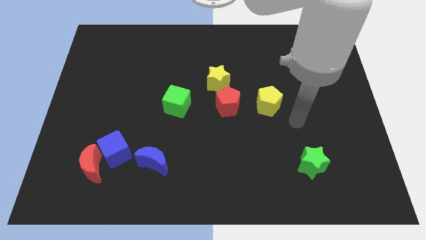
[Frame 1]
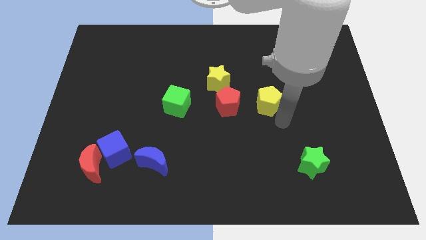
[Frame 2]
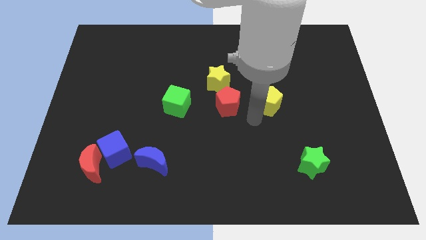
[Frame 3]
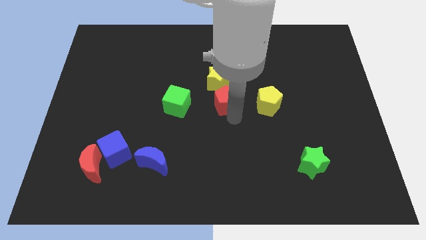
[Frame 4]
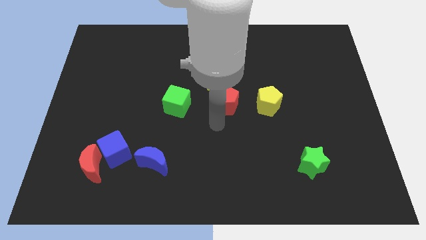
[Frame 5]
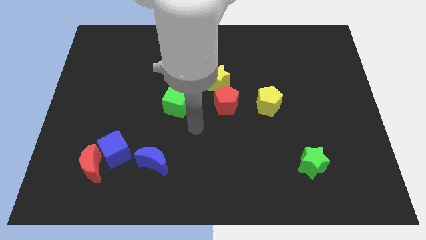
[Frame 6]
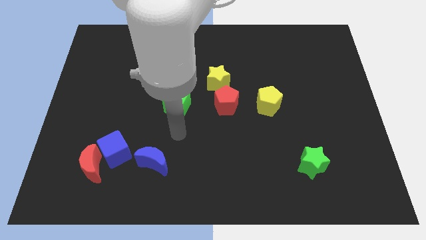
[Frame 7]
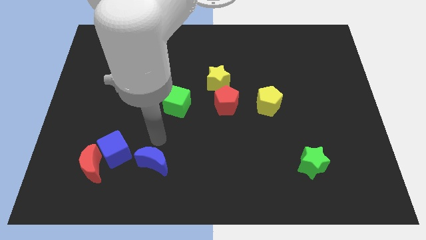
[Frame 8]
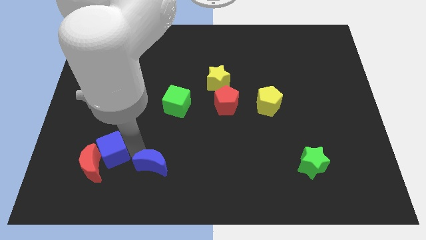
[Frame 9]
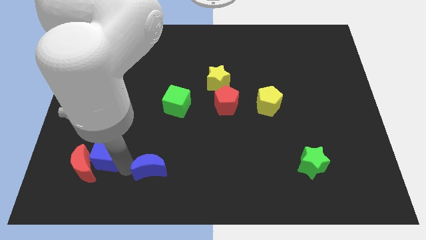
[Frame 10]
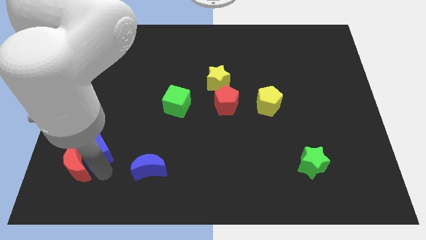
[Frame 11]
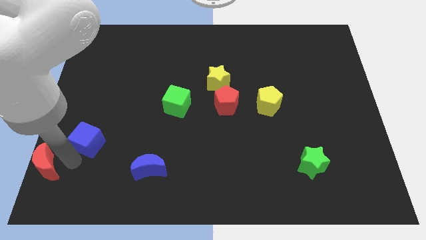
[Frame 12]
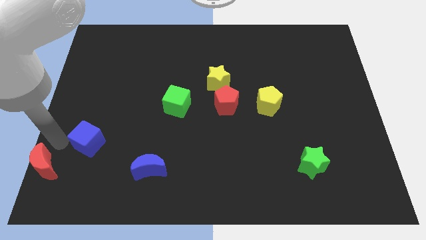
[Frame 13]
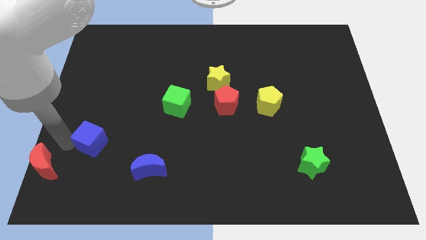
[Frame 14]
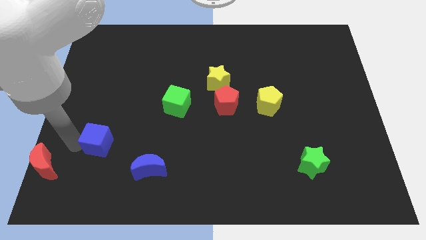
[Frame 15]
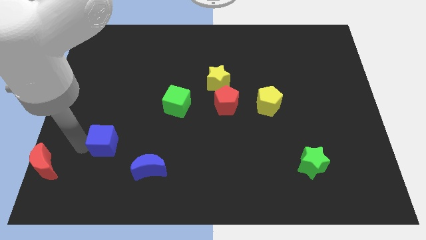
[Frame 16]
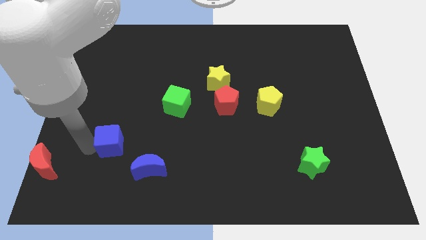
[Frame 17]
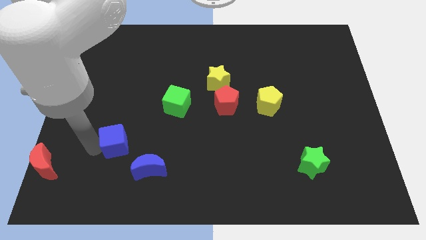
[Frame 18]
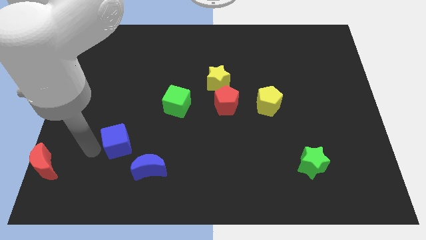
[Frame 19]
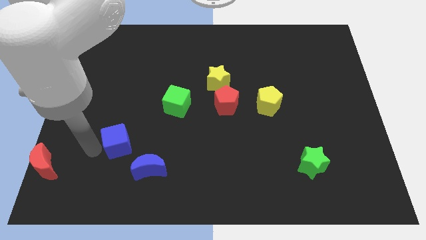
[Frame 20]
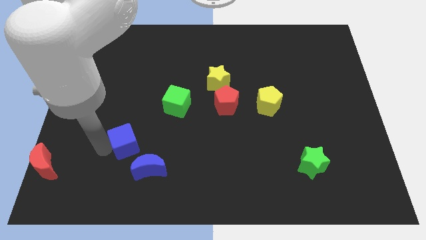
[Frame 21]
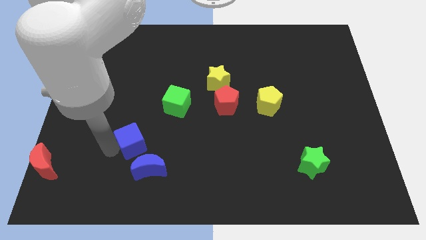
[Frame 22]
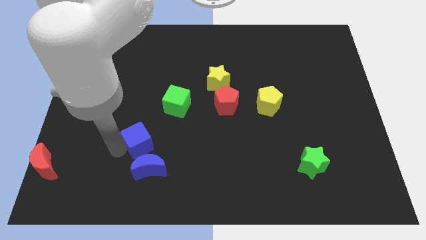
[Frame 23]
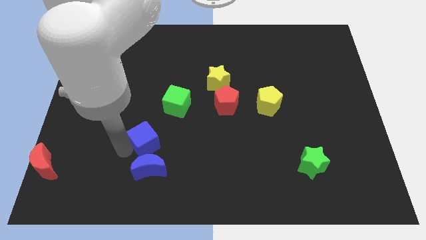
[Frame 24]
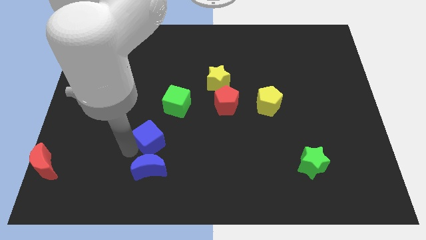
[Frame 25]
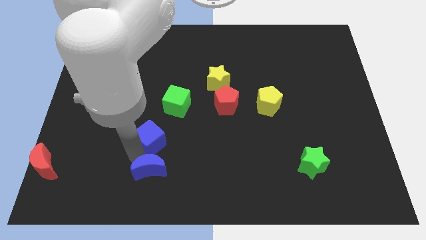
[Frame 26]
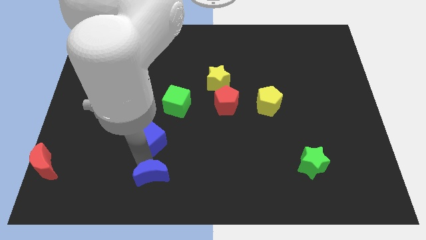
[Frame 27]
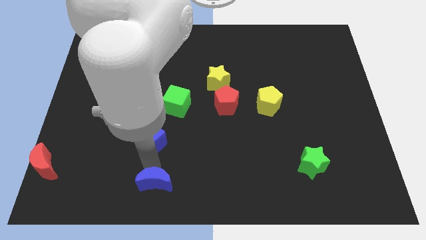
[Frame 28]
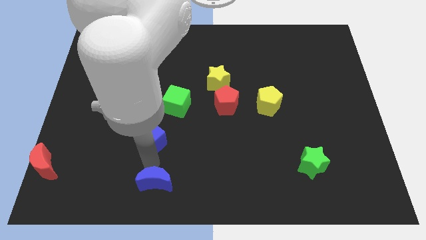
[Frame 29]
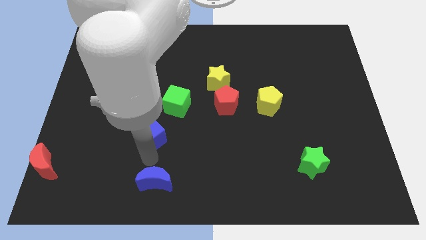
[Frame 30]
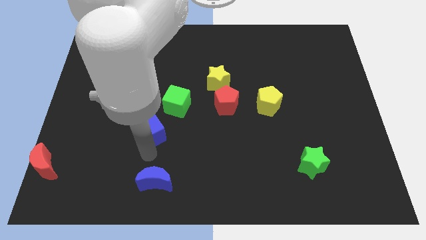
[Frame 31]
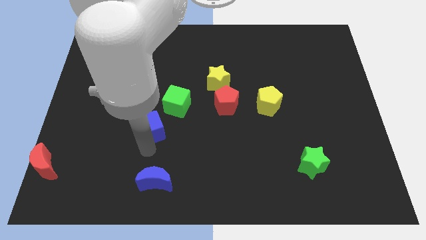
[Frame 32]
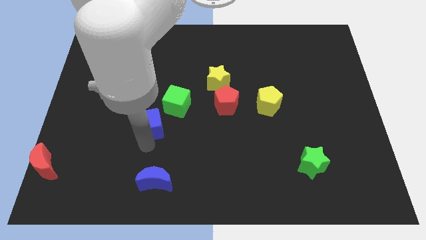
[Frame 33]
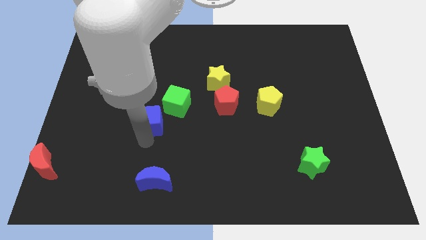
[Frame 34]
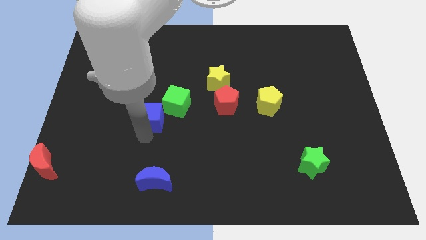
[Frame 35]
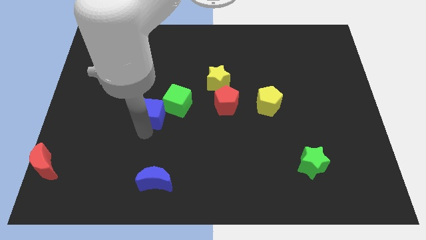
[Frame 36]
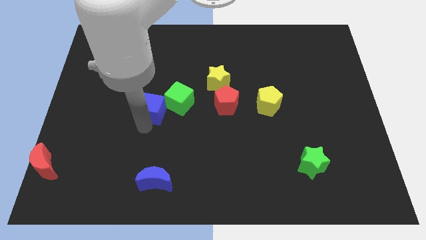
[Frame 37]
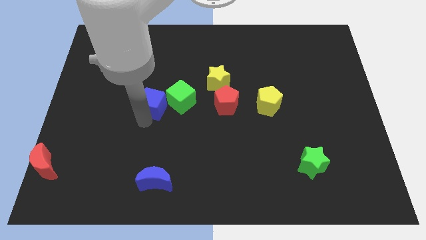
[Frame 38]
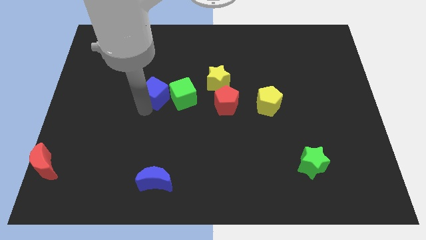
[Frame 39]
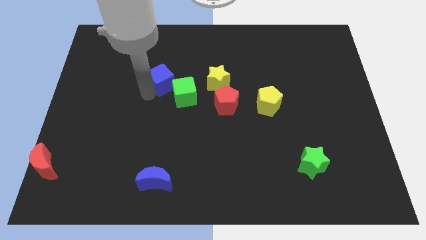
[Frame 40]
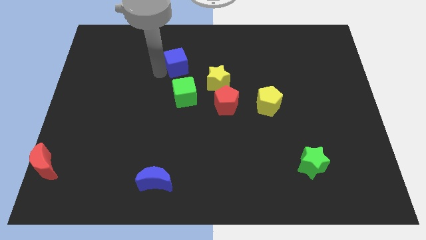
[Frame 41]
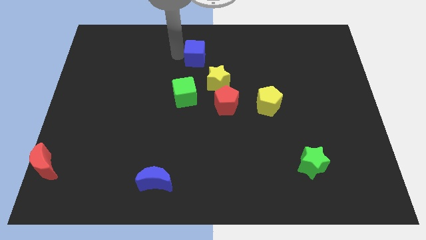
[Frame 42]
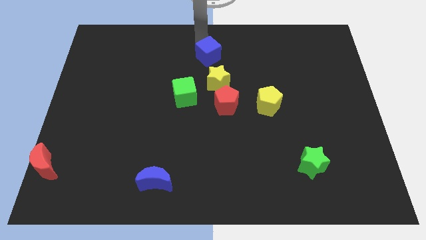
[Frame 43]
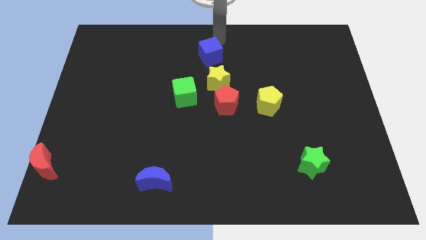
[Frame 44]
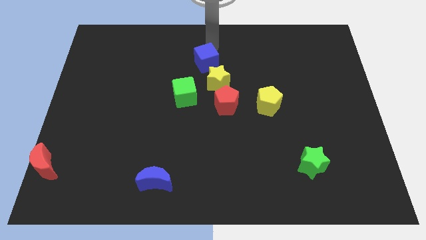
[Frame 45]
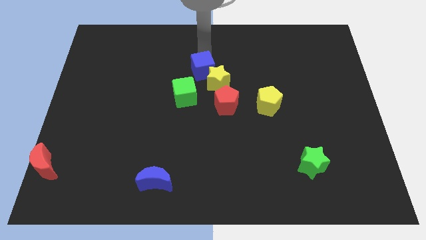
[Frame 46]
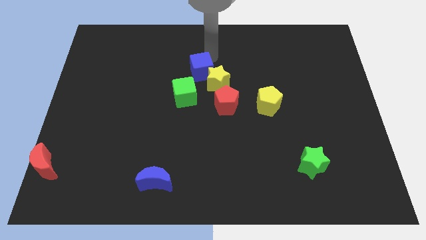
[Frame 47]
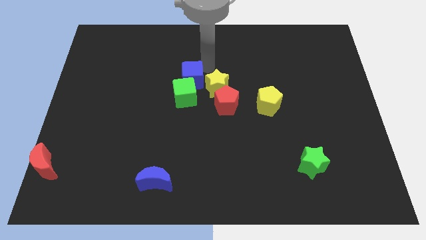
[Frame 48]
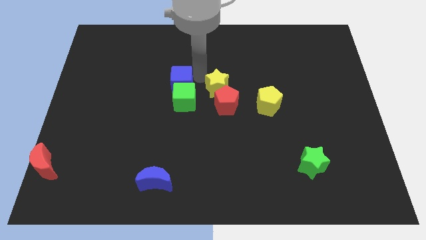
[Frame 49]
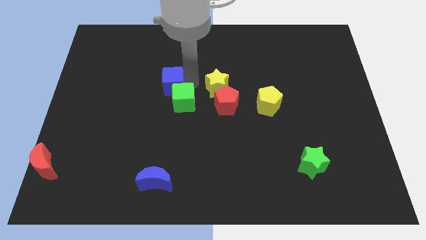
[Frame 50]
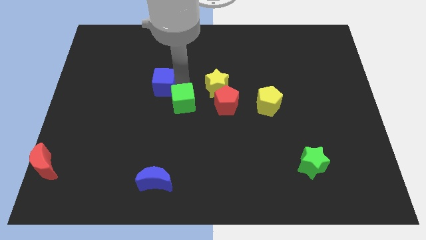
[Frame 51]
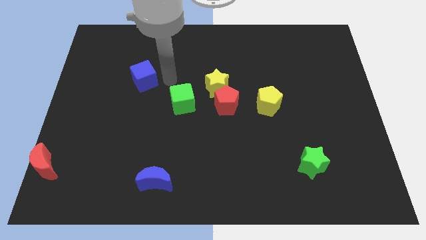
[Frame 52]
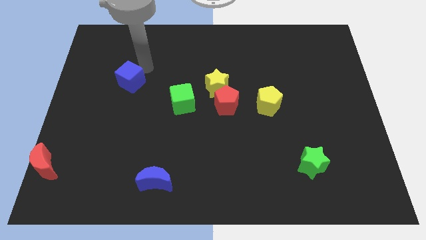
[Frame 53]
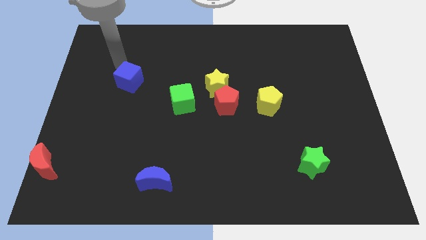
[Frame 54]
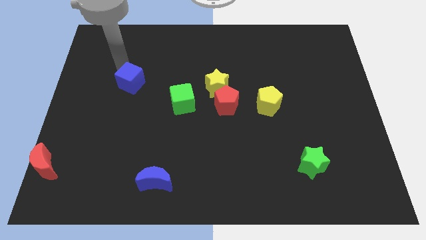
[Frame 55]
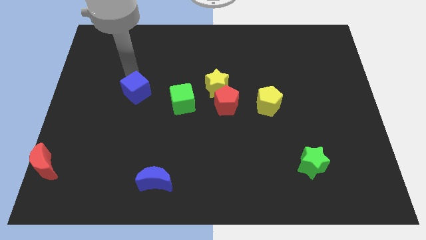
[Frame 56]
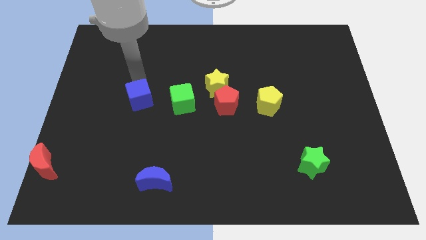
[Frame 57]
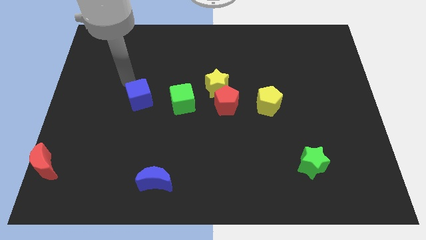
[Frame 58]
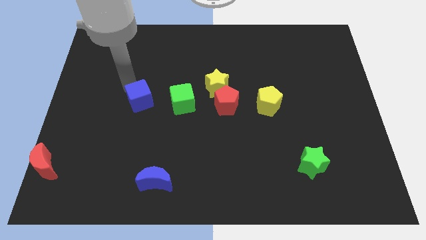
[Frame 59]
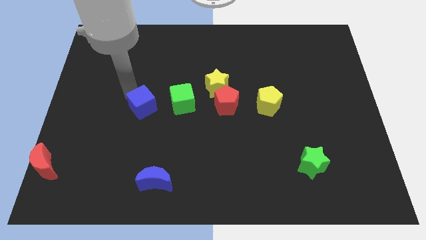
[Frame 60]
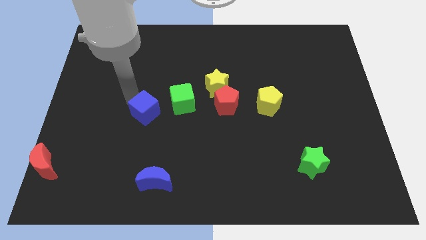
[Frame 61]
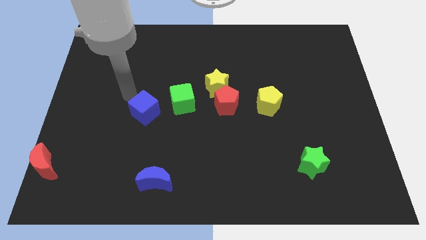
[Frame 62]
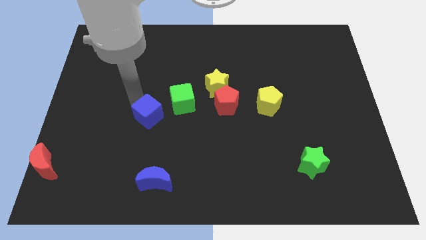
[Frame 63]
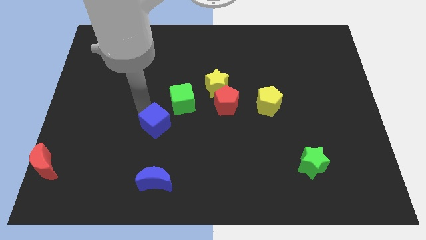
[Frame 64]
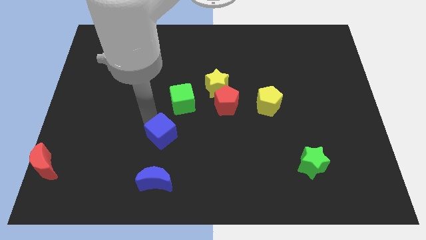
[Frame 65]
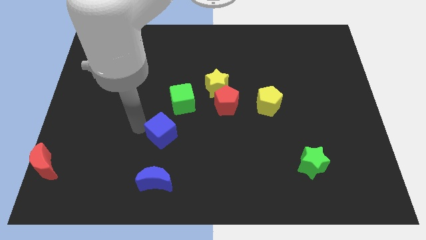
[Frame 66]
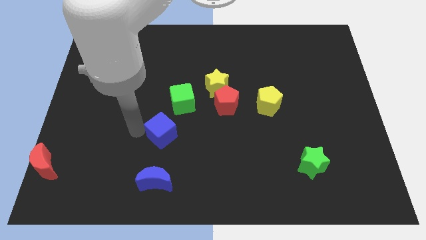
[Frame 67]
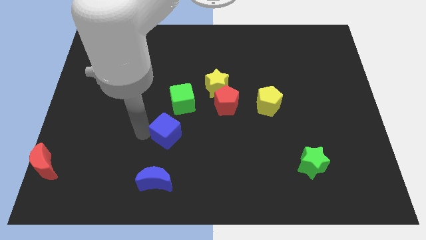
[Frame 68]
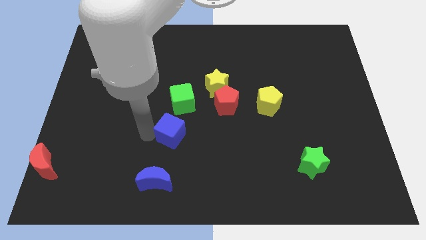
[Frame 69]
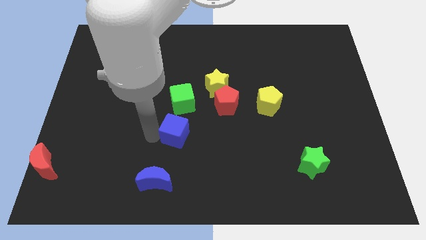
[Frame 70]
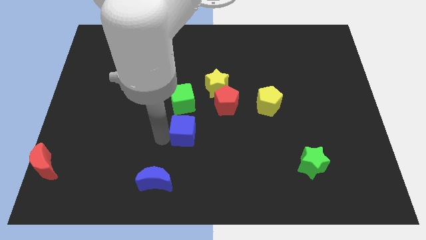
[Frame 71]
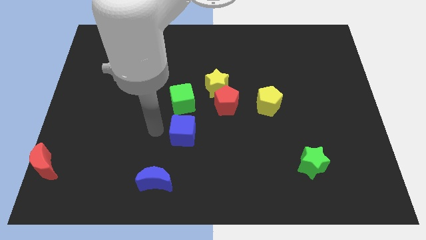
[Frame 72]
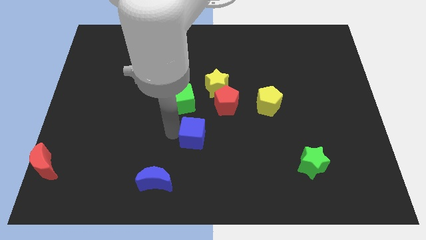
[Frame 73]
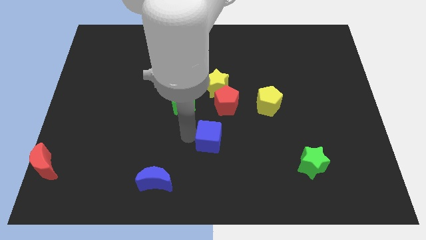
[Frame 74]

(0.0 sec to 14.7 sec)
put the blue cube to the bottom of the red pentagon
